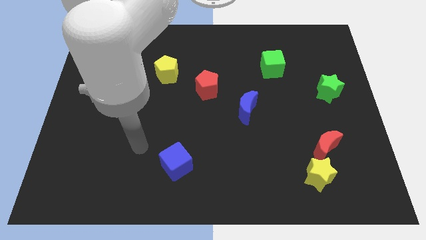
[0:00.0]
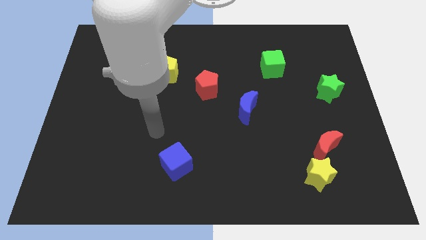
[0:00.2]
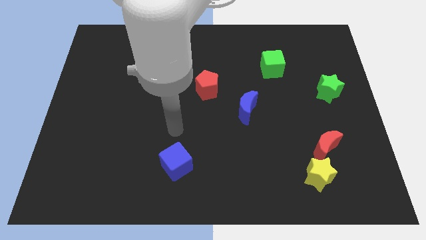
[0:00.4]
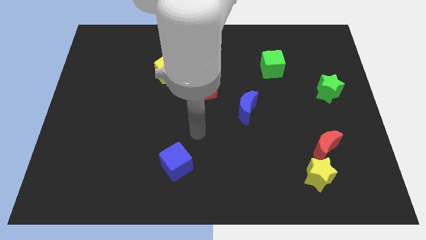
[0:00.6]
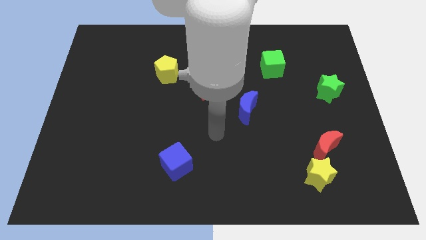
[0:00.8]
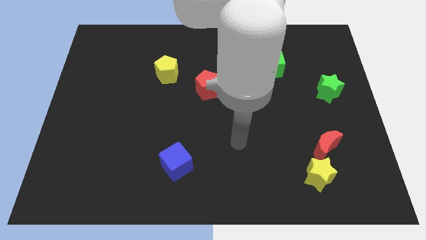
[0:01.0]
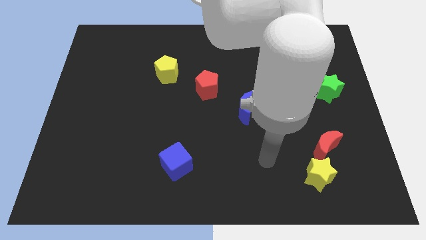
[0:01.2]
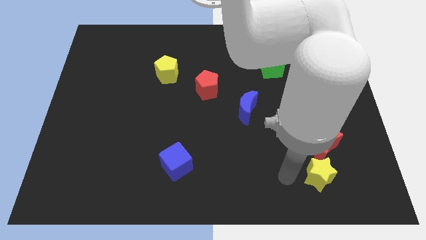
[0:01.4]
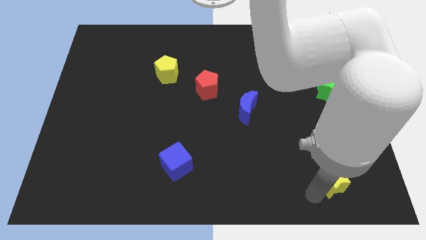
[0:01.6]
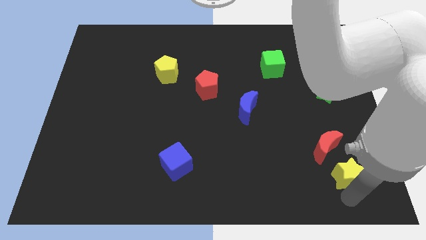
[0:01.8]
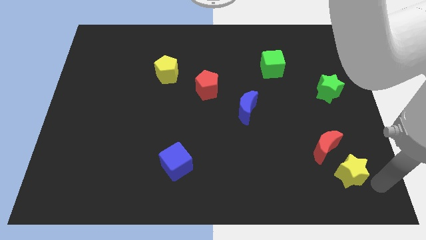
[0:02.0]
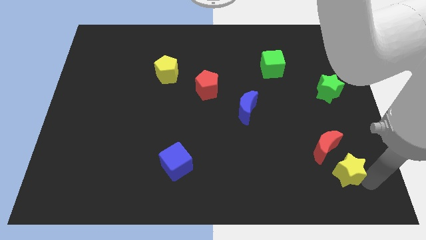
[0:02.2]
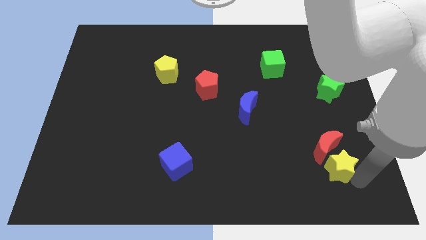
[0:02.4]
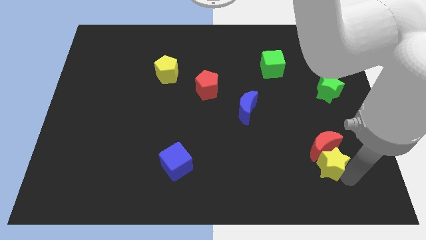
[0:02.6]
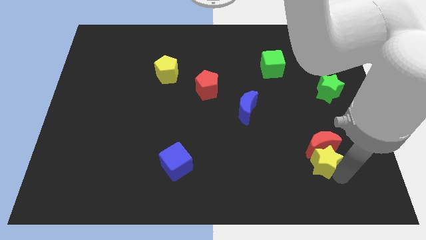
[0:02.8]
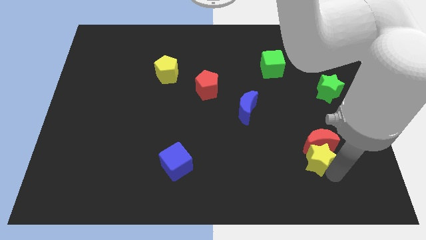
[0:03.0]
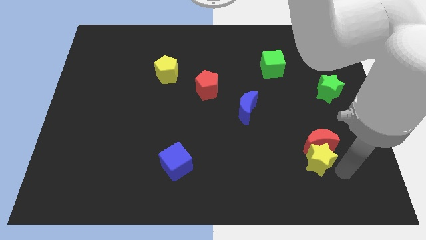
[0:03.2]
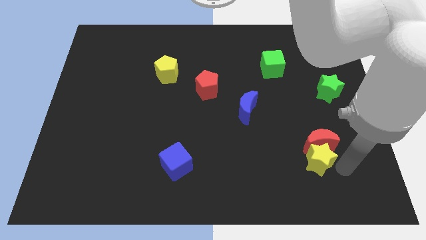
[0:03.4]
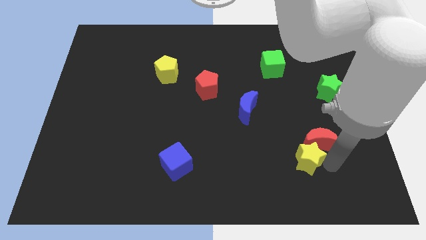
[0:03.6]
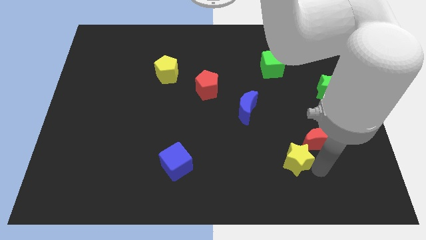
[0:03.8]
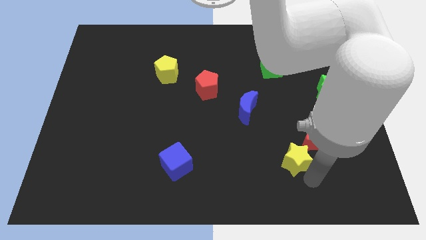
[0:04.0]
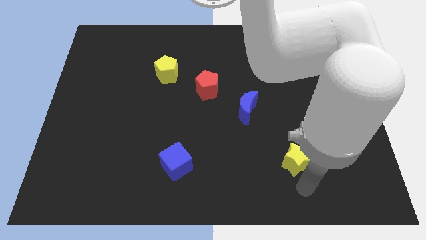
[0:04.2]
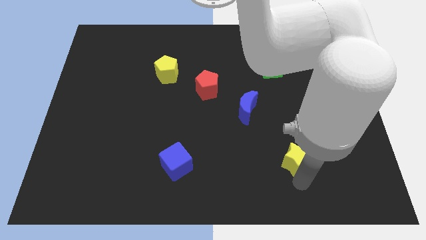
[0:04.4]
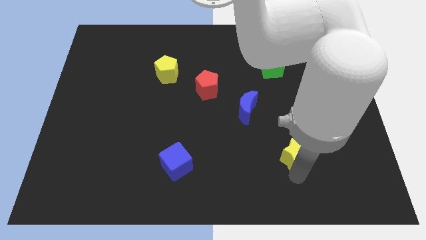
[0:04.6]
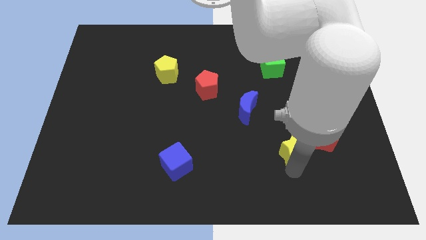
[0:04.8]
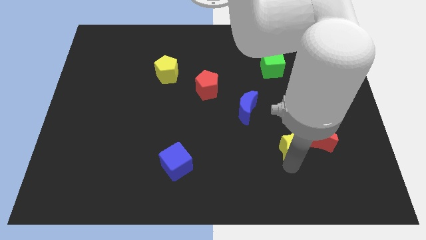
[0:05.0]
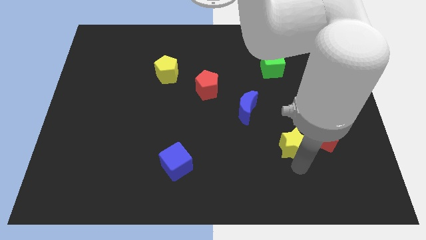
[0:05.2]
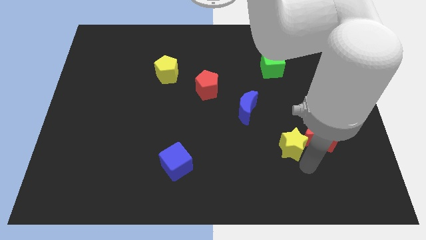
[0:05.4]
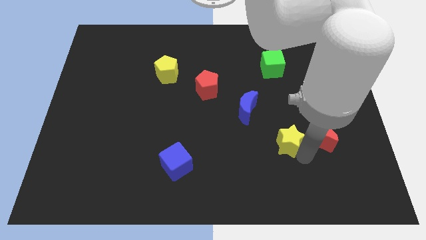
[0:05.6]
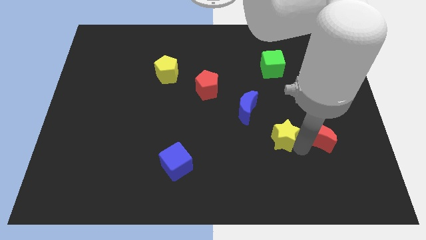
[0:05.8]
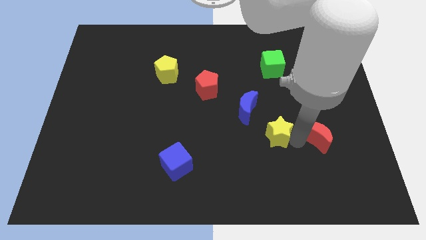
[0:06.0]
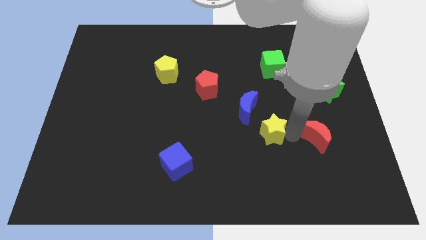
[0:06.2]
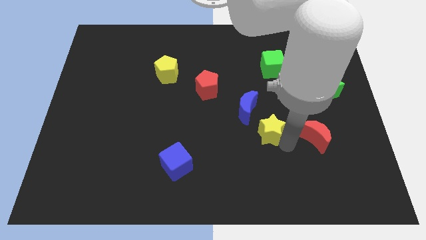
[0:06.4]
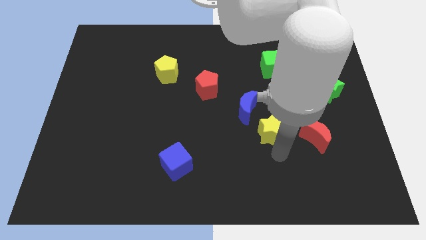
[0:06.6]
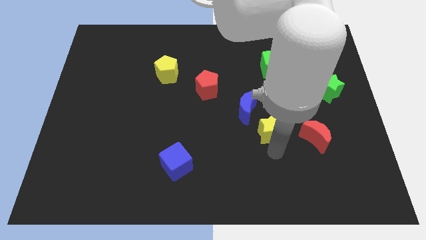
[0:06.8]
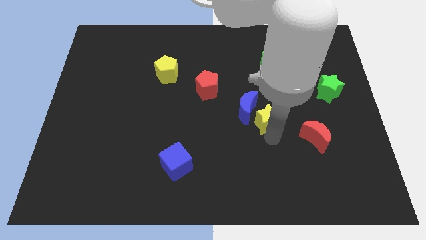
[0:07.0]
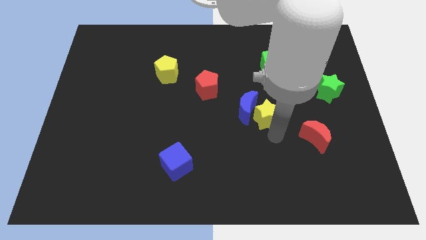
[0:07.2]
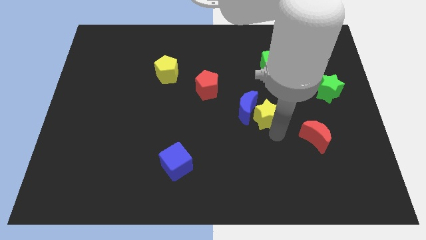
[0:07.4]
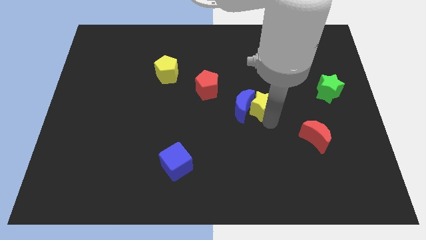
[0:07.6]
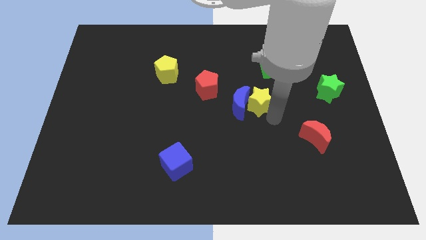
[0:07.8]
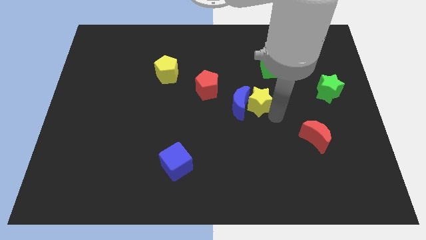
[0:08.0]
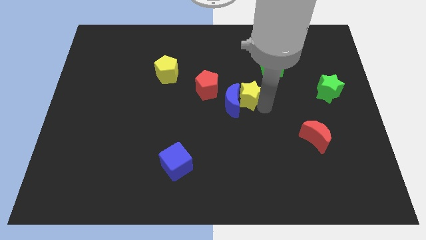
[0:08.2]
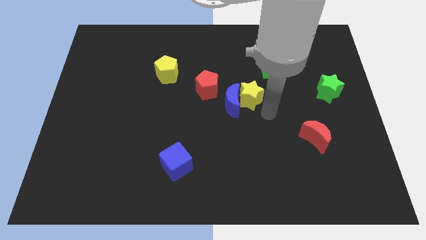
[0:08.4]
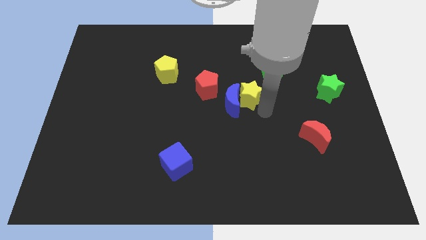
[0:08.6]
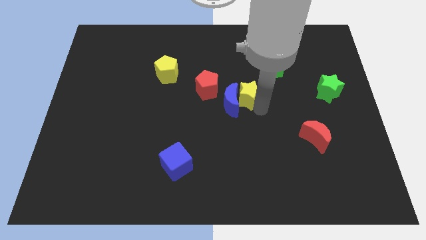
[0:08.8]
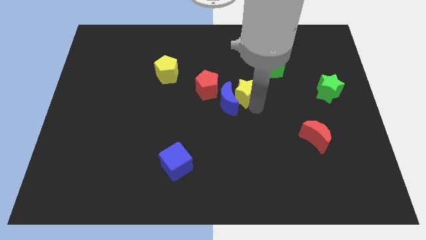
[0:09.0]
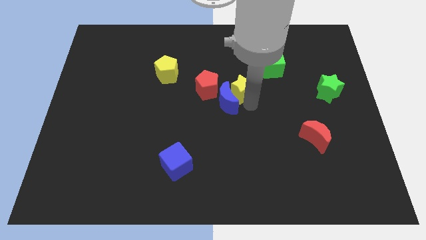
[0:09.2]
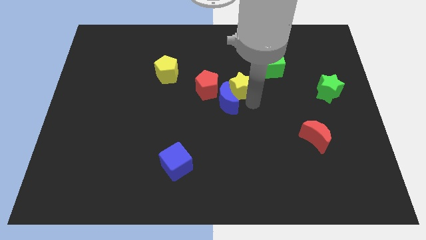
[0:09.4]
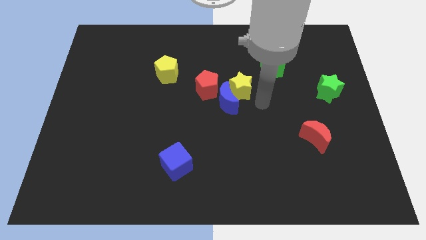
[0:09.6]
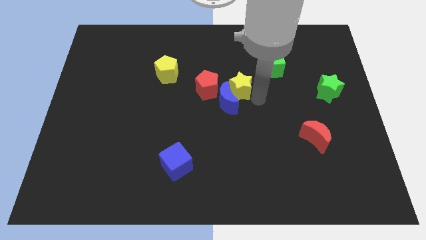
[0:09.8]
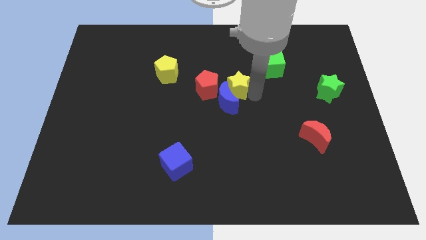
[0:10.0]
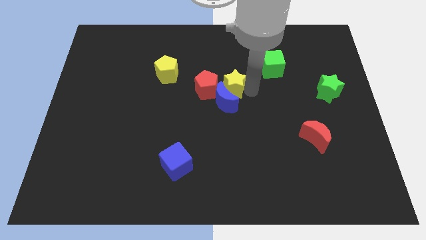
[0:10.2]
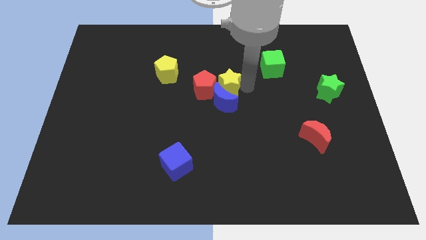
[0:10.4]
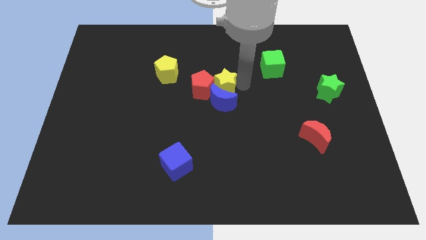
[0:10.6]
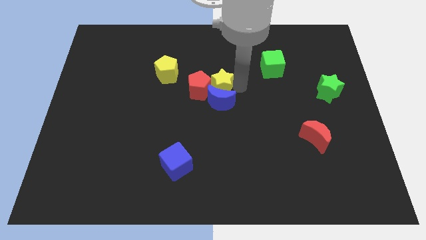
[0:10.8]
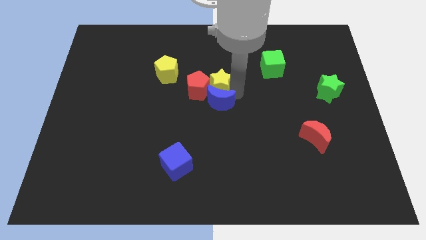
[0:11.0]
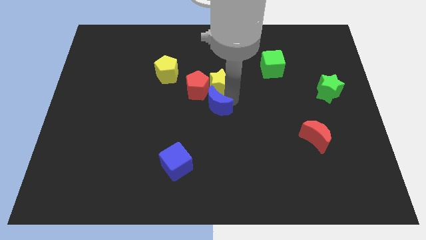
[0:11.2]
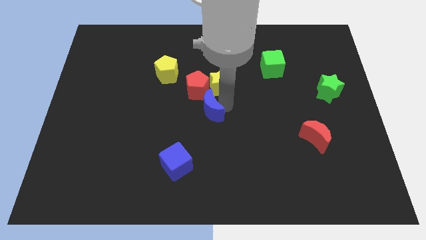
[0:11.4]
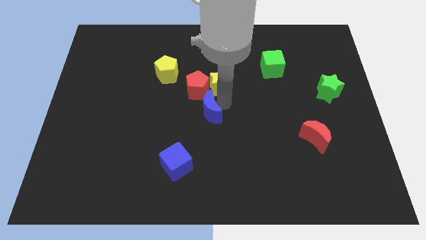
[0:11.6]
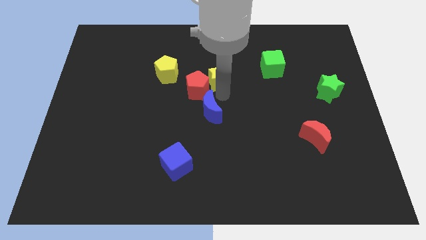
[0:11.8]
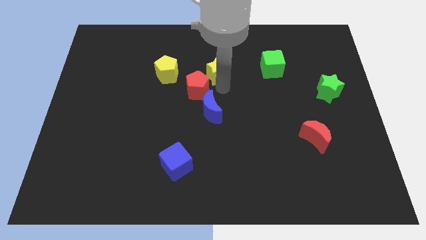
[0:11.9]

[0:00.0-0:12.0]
push the yellow star to the top side of the red pentagon
